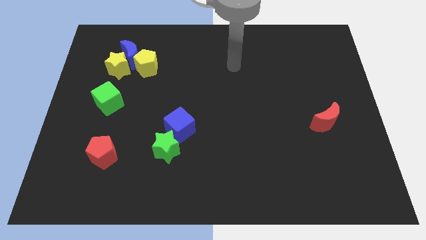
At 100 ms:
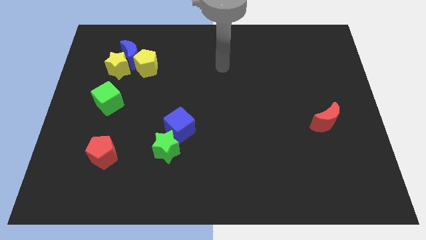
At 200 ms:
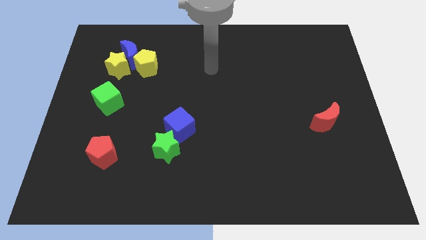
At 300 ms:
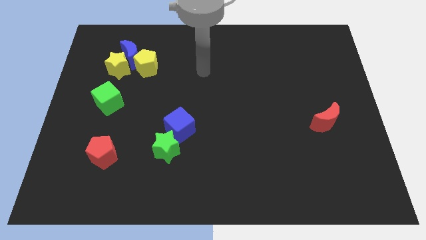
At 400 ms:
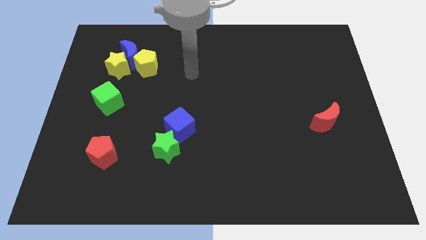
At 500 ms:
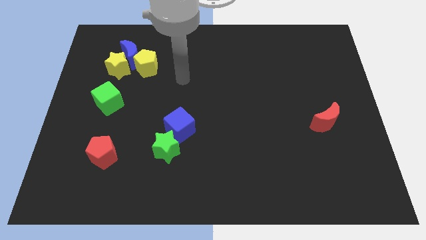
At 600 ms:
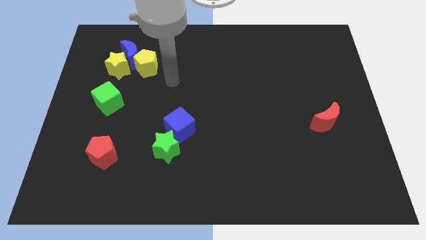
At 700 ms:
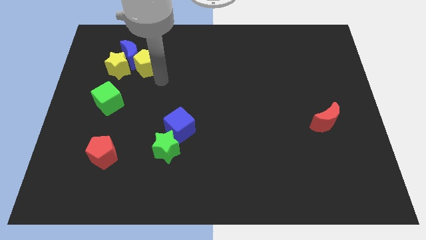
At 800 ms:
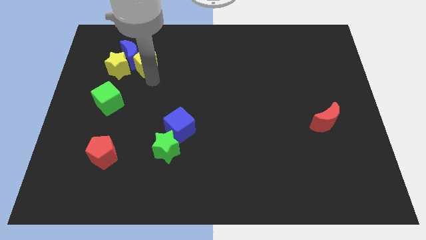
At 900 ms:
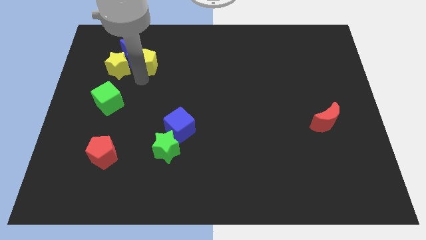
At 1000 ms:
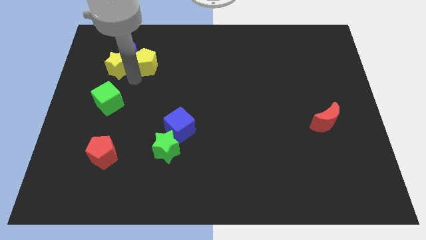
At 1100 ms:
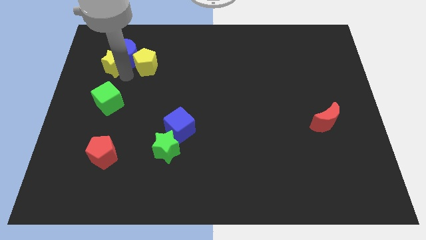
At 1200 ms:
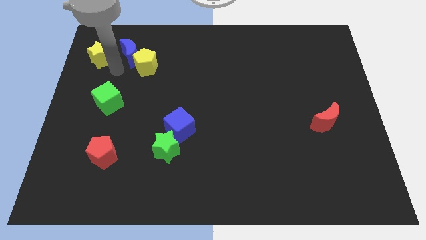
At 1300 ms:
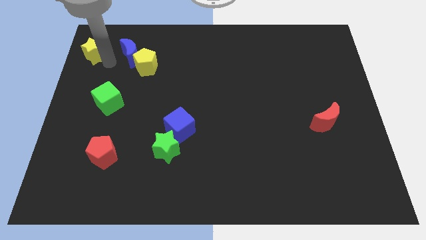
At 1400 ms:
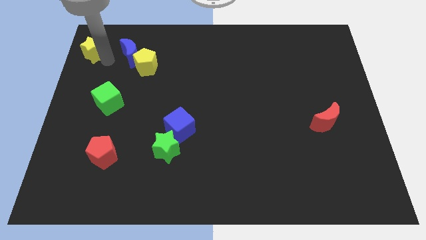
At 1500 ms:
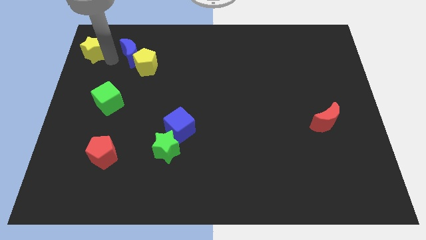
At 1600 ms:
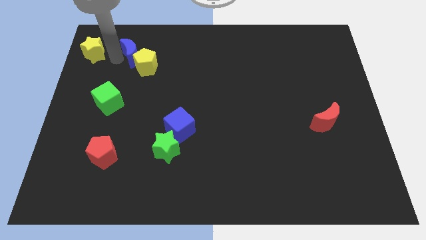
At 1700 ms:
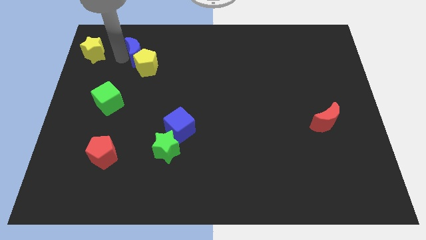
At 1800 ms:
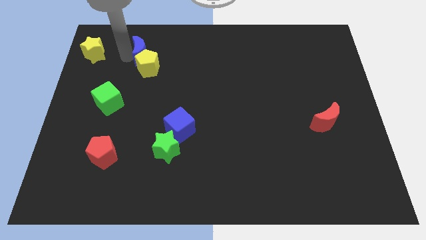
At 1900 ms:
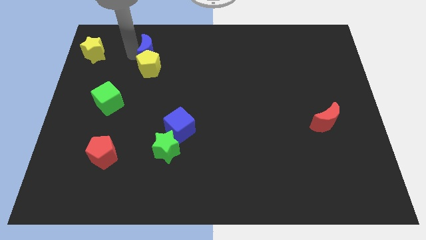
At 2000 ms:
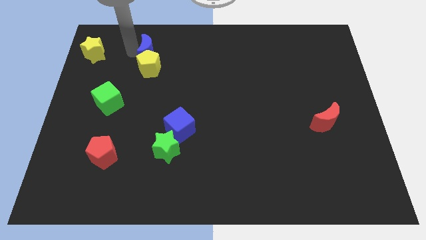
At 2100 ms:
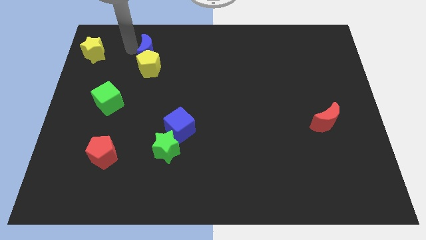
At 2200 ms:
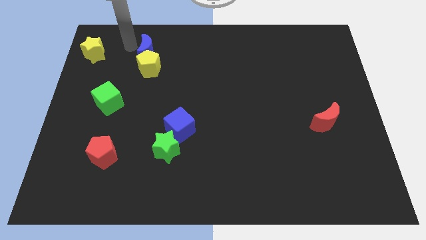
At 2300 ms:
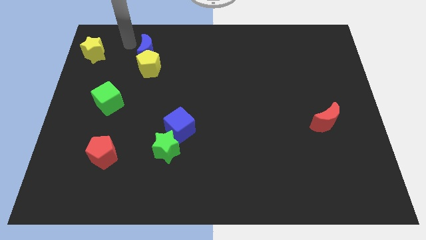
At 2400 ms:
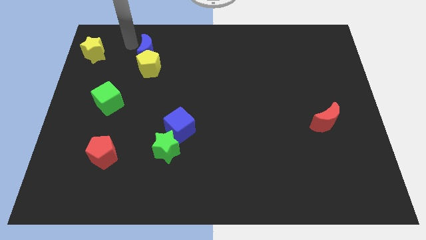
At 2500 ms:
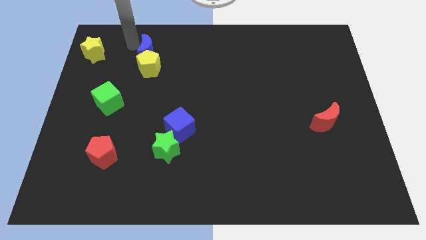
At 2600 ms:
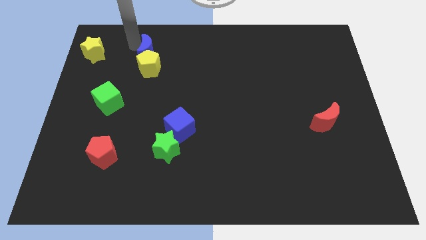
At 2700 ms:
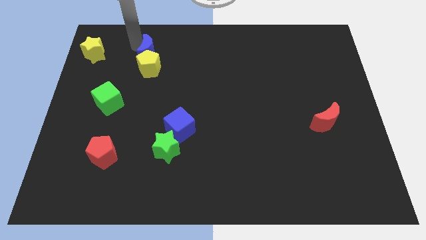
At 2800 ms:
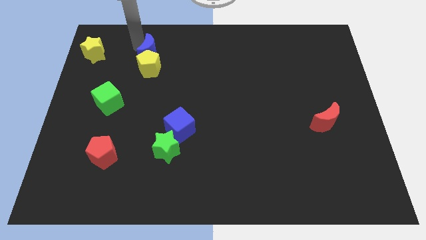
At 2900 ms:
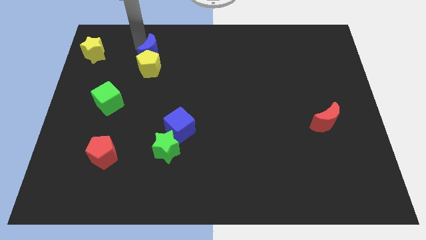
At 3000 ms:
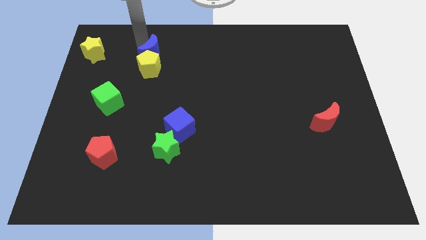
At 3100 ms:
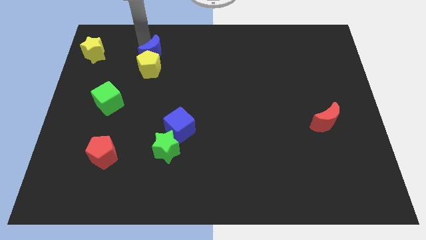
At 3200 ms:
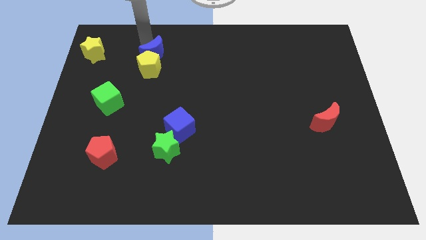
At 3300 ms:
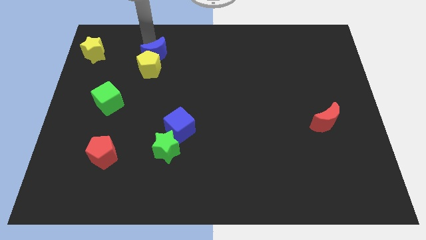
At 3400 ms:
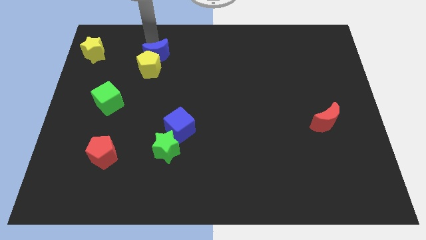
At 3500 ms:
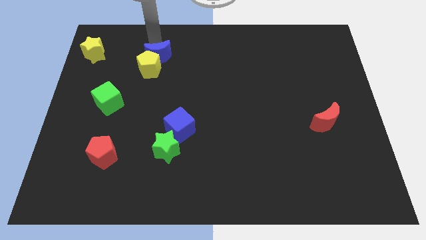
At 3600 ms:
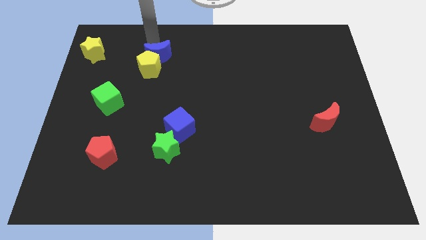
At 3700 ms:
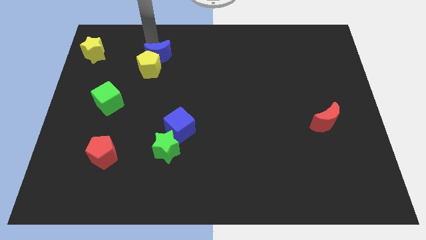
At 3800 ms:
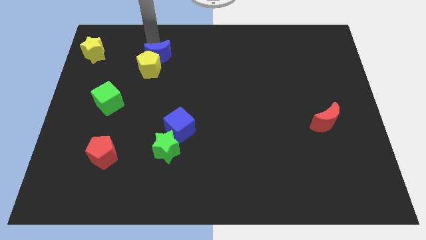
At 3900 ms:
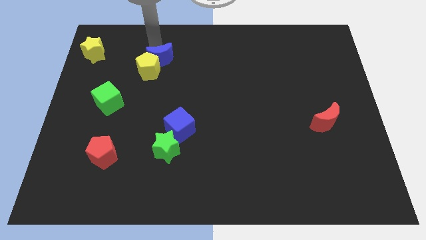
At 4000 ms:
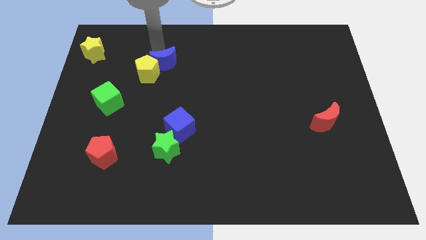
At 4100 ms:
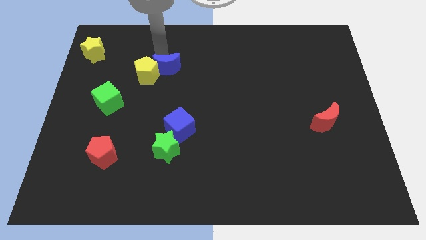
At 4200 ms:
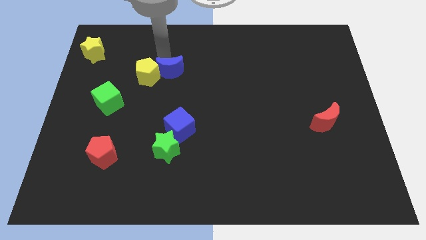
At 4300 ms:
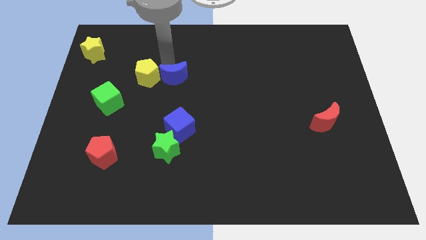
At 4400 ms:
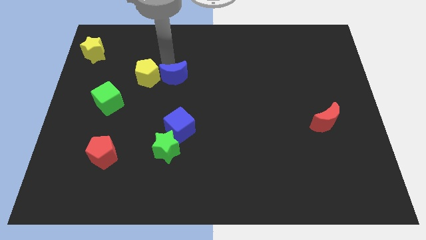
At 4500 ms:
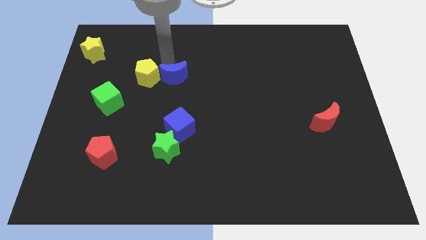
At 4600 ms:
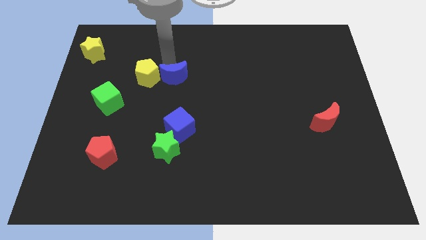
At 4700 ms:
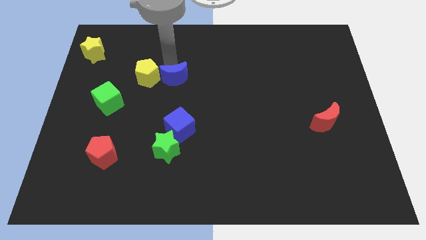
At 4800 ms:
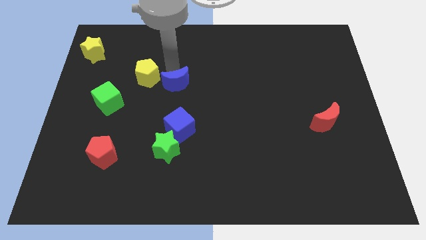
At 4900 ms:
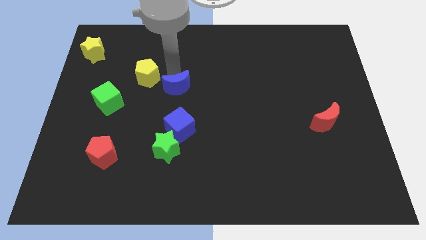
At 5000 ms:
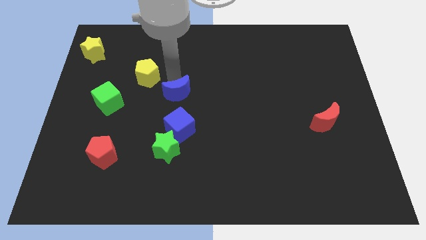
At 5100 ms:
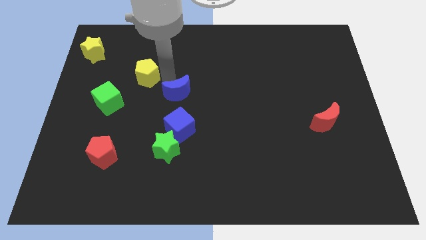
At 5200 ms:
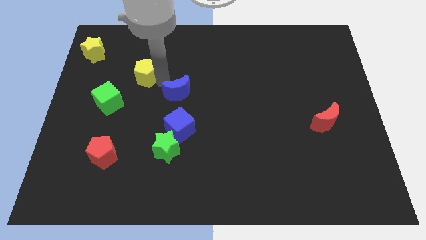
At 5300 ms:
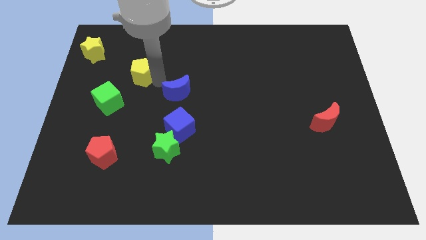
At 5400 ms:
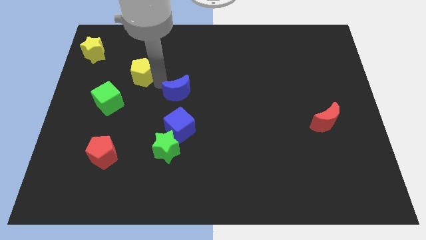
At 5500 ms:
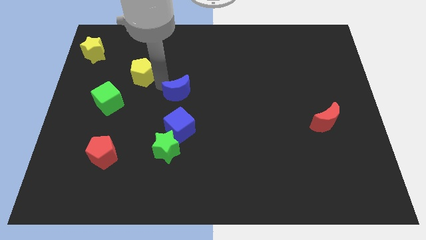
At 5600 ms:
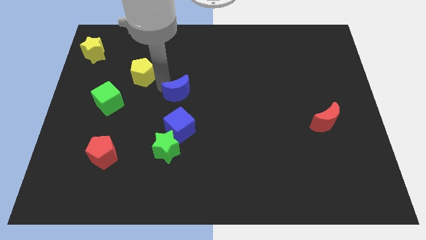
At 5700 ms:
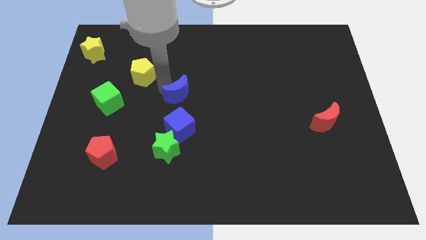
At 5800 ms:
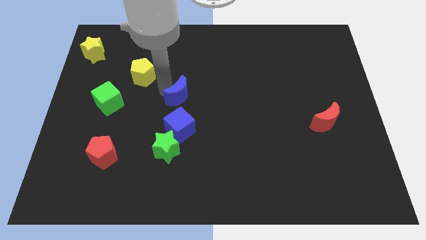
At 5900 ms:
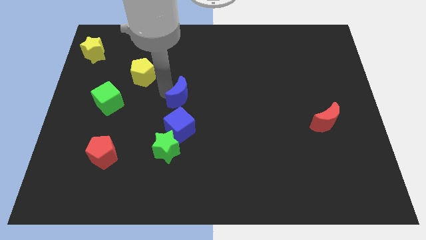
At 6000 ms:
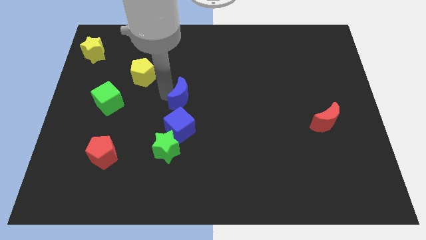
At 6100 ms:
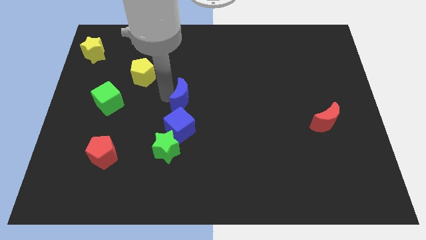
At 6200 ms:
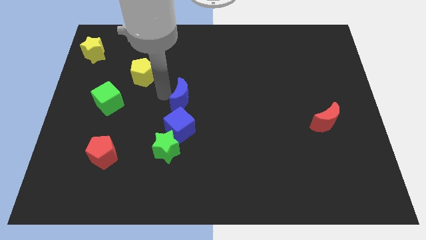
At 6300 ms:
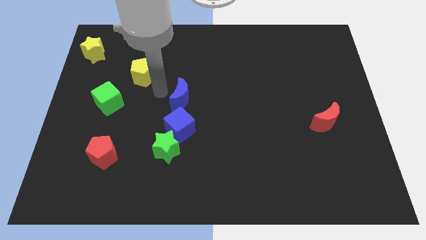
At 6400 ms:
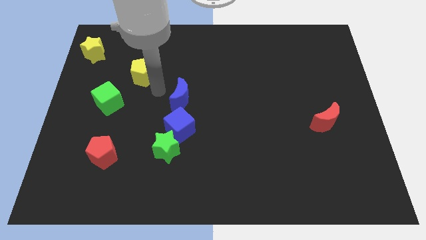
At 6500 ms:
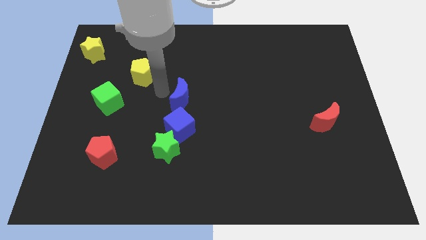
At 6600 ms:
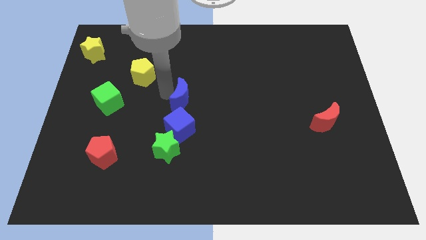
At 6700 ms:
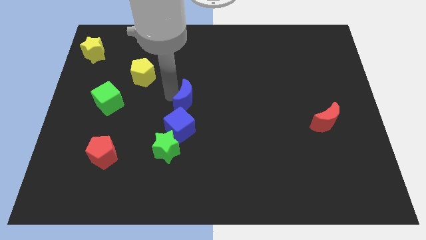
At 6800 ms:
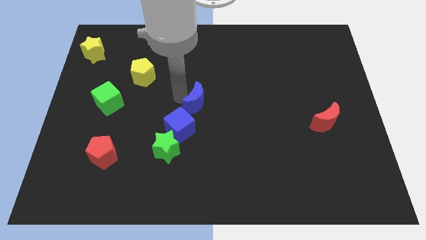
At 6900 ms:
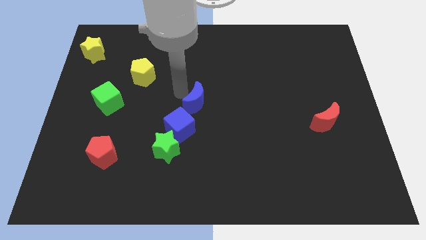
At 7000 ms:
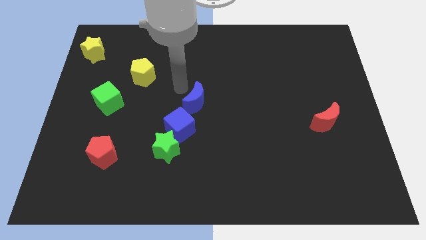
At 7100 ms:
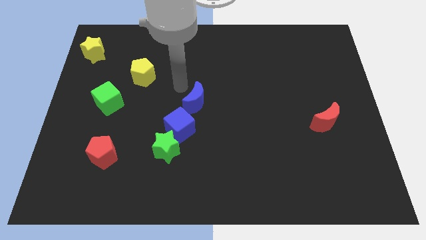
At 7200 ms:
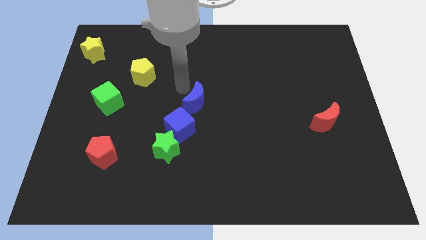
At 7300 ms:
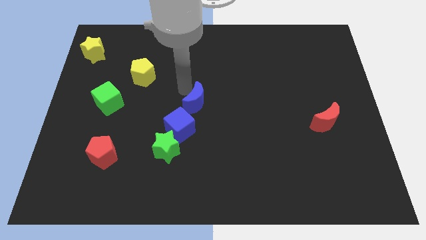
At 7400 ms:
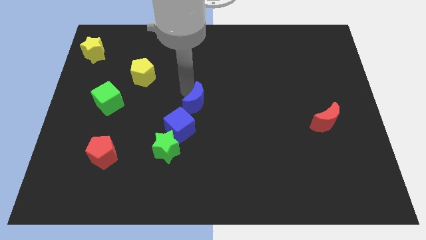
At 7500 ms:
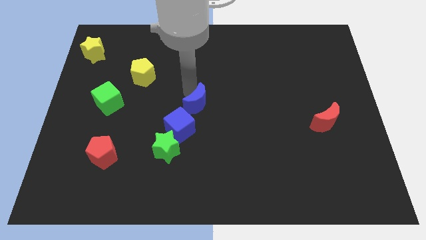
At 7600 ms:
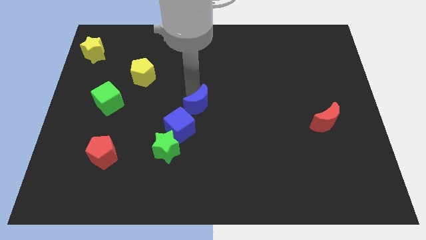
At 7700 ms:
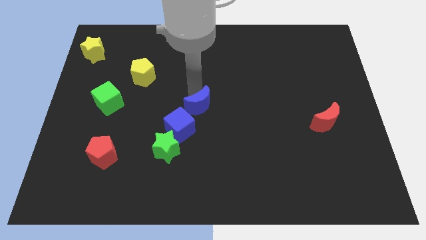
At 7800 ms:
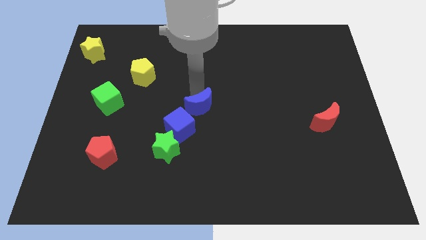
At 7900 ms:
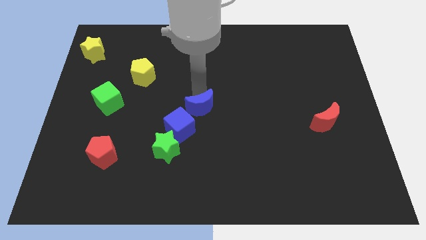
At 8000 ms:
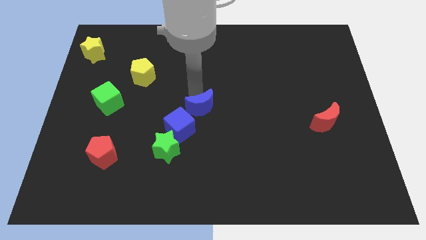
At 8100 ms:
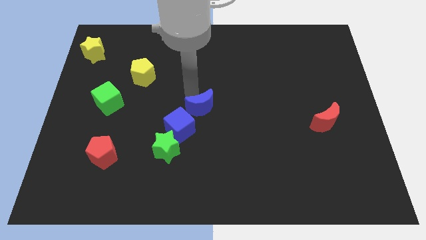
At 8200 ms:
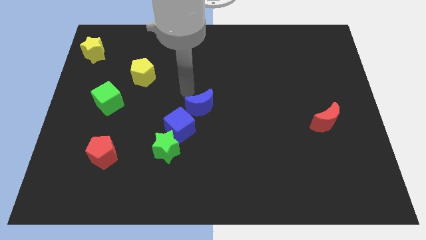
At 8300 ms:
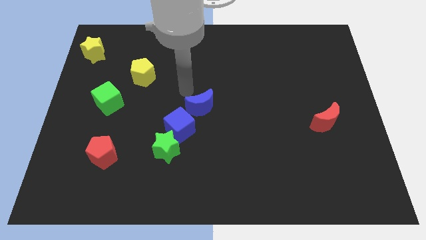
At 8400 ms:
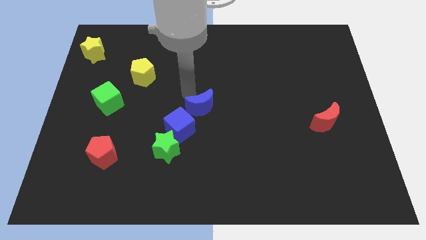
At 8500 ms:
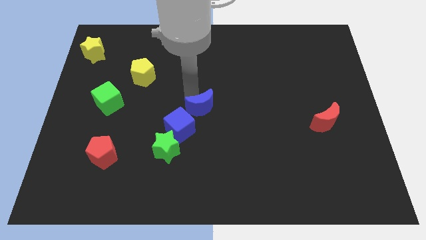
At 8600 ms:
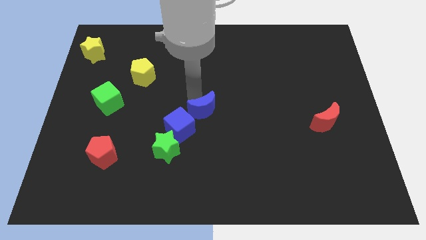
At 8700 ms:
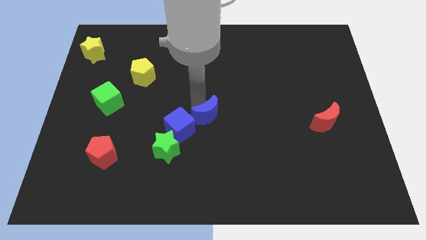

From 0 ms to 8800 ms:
push the blue moon to the right of the blue cube
